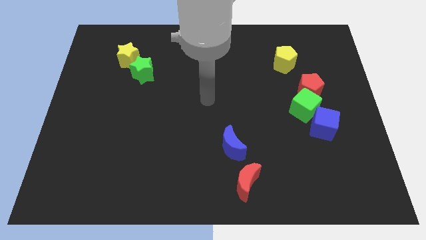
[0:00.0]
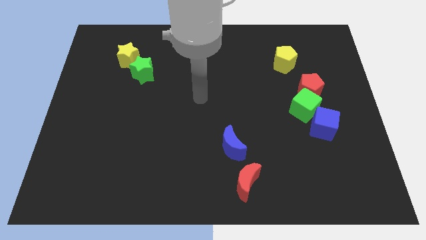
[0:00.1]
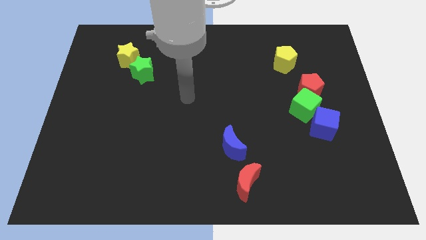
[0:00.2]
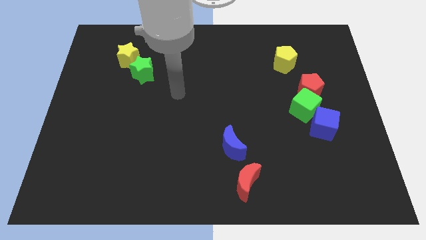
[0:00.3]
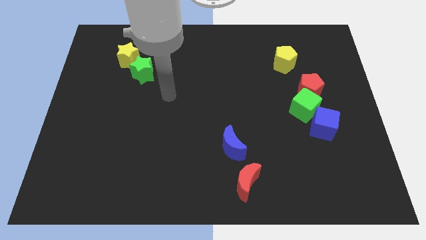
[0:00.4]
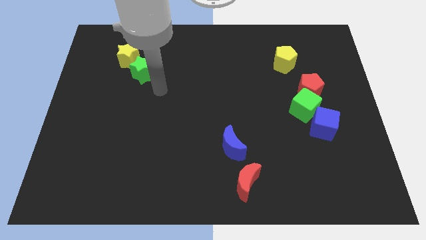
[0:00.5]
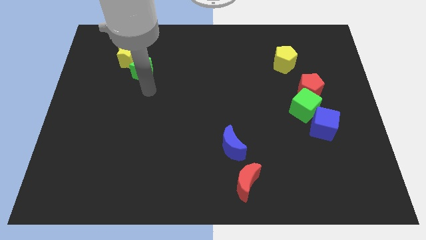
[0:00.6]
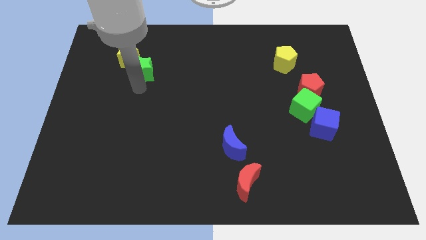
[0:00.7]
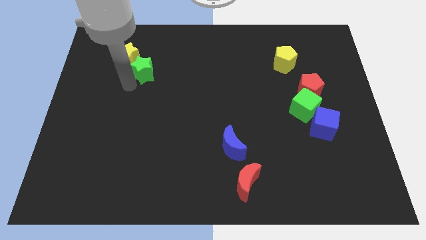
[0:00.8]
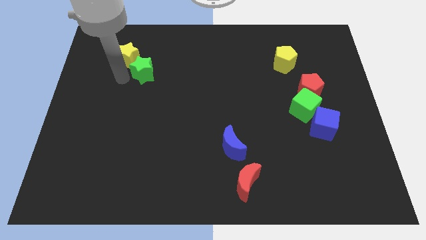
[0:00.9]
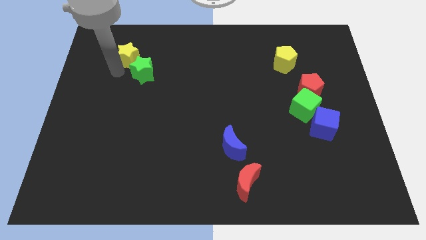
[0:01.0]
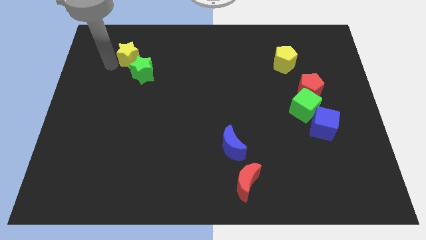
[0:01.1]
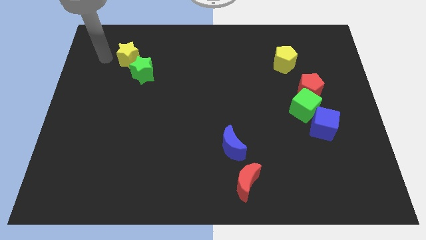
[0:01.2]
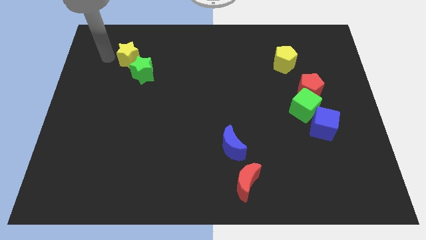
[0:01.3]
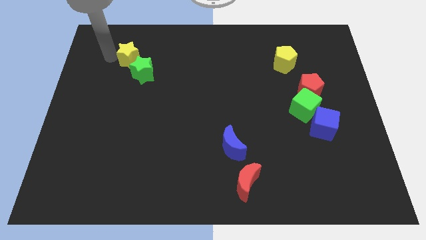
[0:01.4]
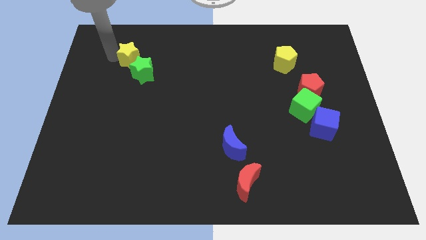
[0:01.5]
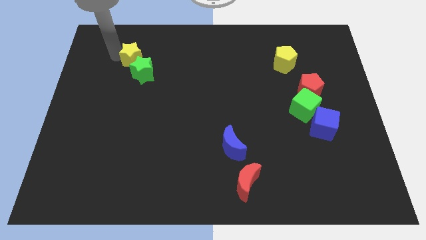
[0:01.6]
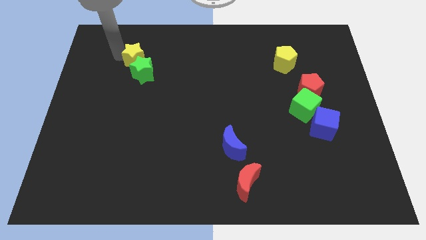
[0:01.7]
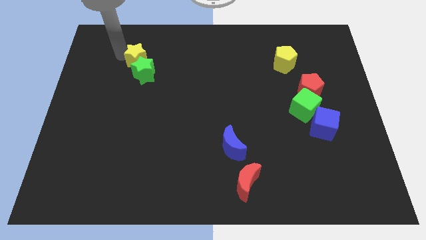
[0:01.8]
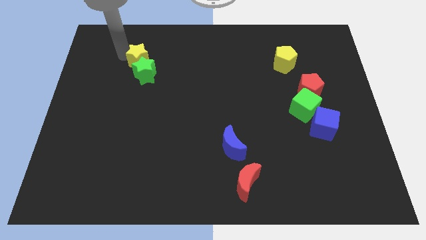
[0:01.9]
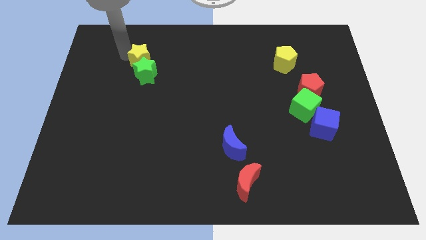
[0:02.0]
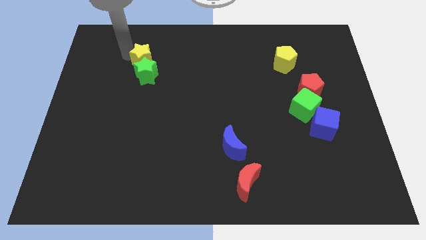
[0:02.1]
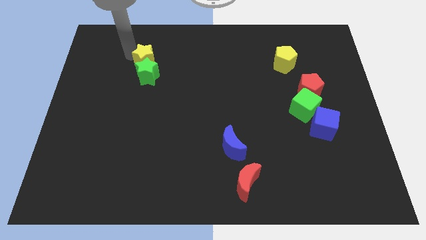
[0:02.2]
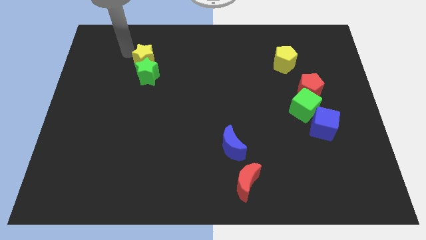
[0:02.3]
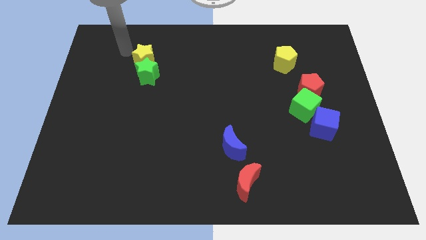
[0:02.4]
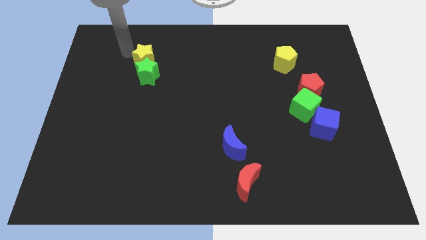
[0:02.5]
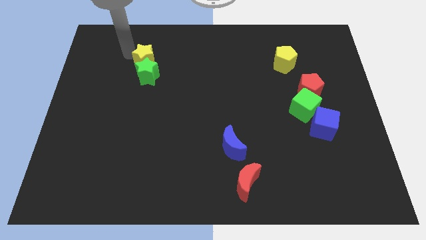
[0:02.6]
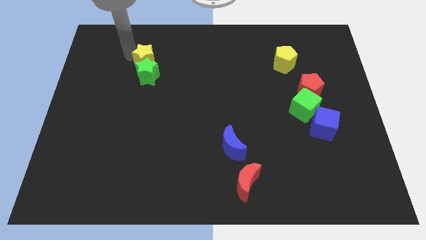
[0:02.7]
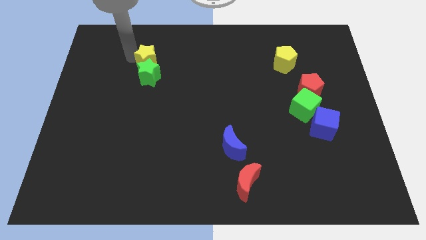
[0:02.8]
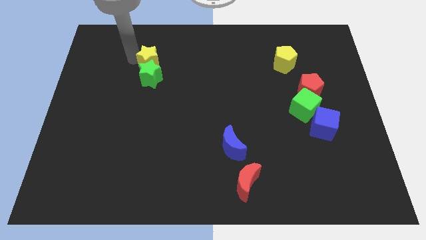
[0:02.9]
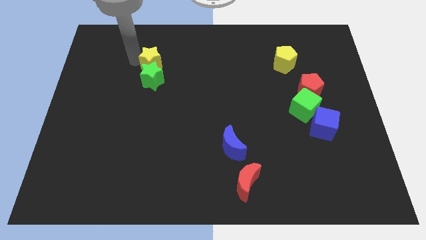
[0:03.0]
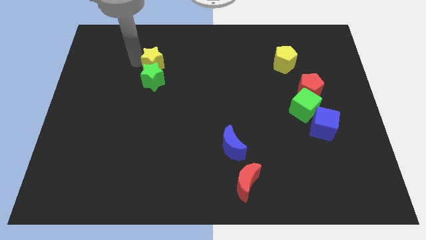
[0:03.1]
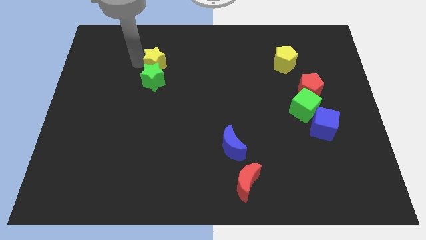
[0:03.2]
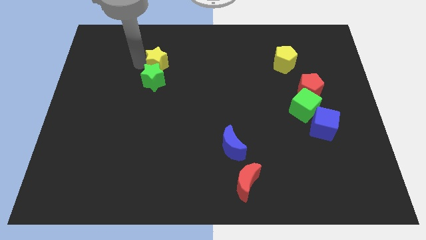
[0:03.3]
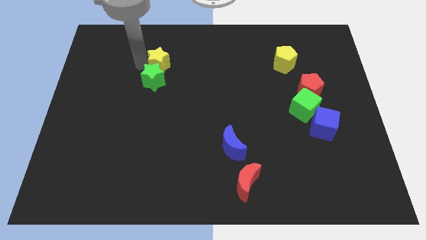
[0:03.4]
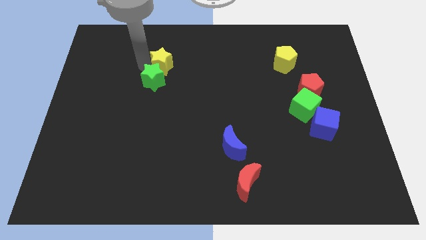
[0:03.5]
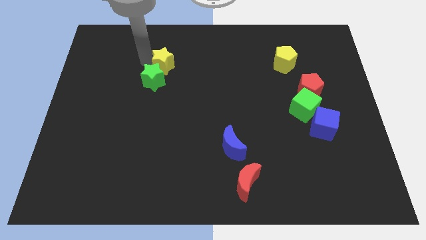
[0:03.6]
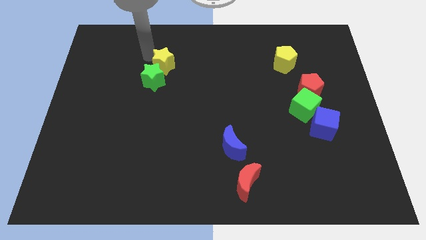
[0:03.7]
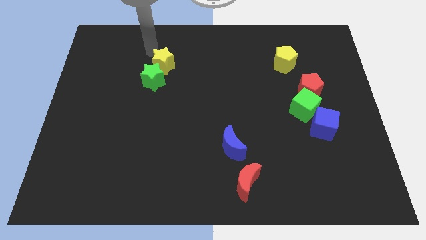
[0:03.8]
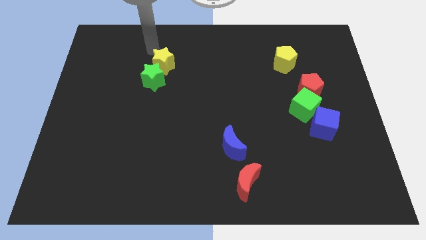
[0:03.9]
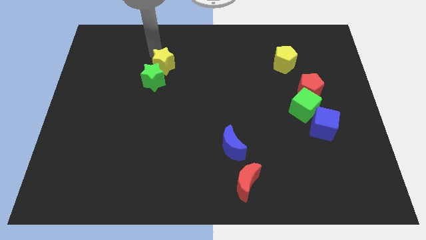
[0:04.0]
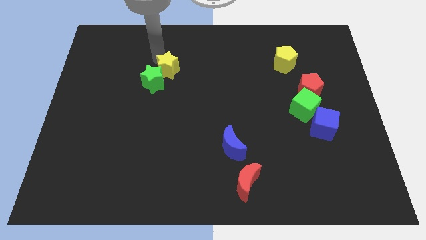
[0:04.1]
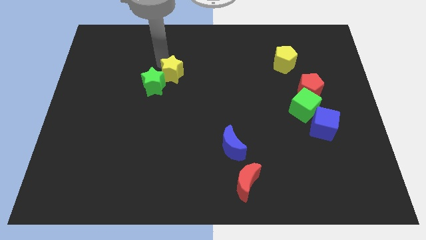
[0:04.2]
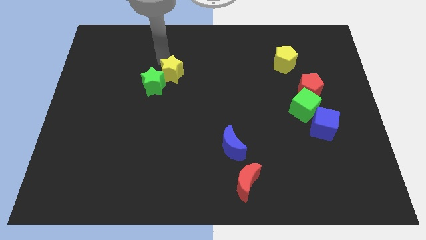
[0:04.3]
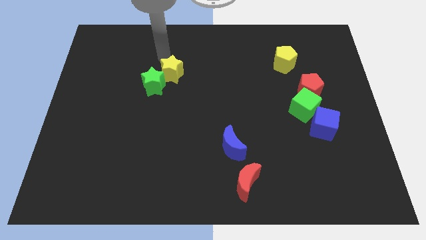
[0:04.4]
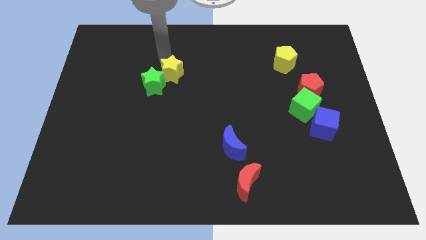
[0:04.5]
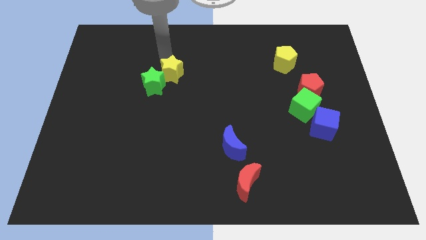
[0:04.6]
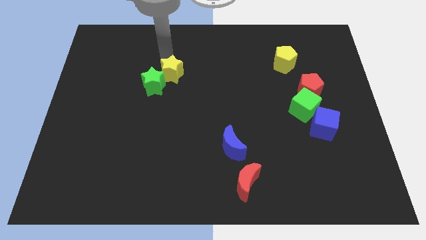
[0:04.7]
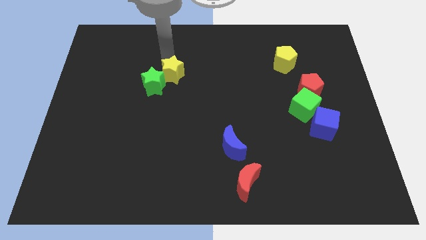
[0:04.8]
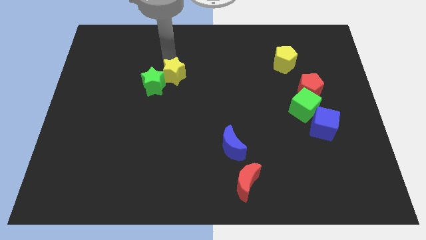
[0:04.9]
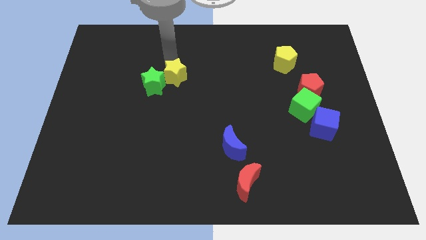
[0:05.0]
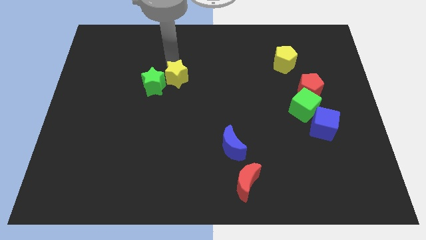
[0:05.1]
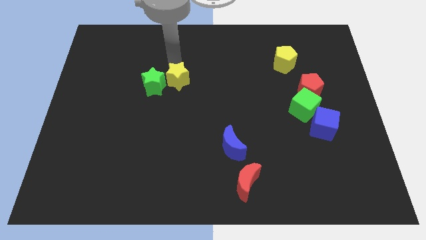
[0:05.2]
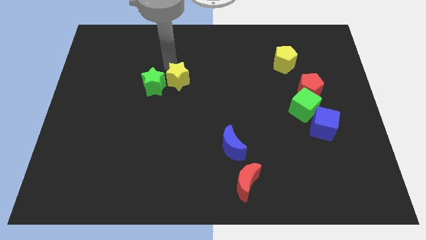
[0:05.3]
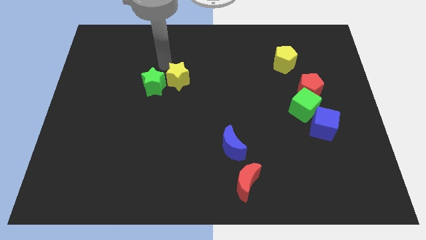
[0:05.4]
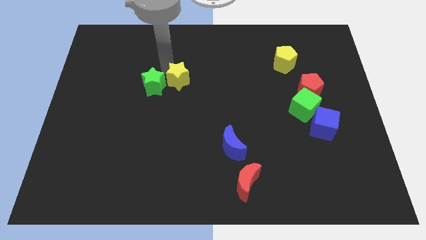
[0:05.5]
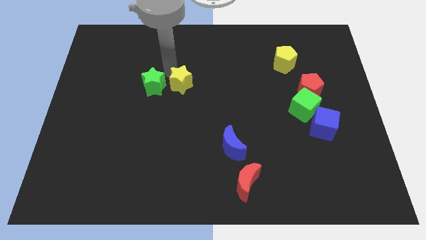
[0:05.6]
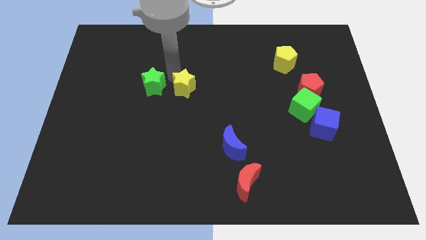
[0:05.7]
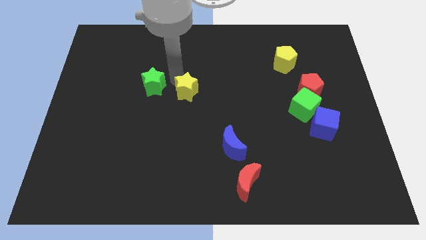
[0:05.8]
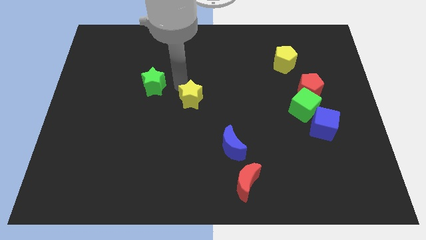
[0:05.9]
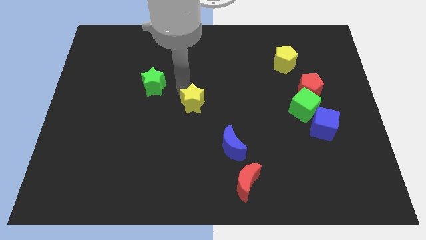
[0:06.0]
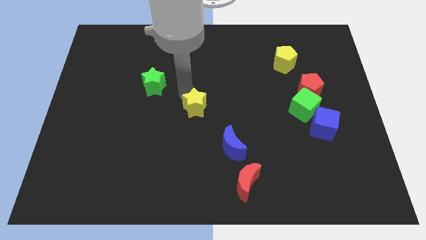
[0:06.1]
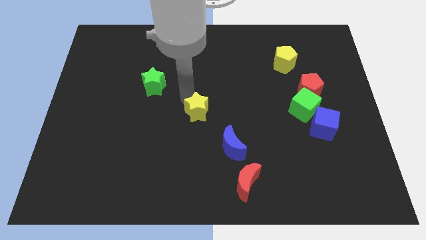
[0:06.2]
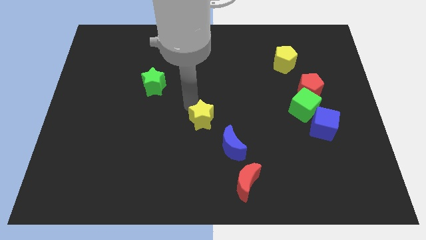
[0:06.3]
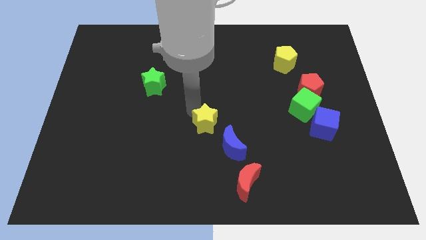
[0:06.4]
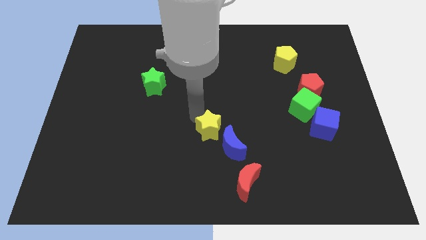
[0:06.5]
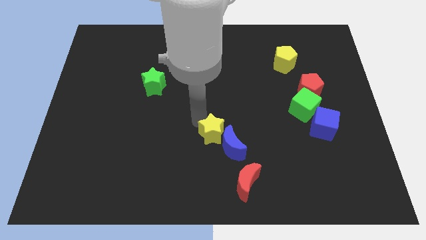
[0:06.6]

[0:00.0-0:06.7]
slide the yellow star close to the blue moon

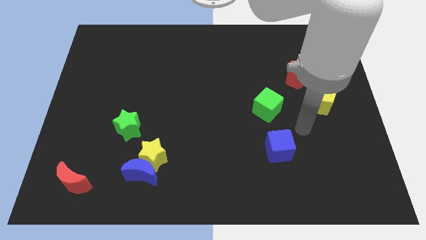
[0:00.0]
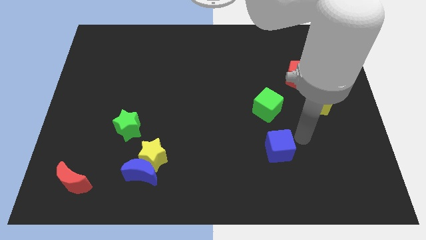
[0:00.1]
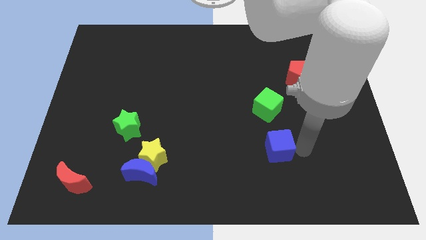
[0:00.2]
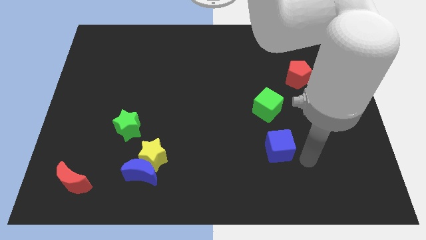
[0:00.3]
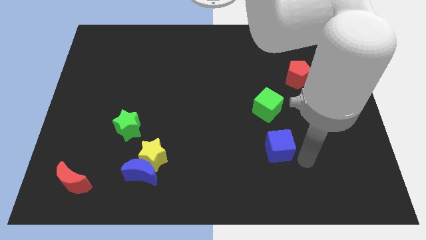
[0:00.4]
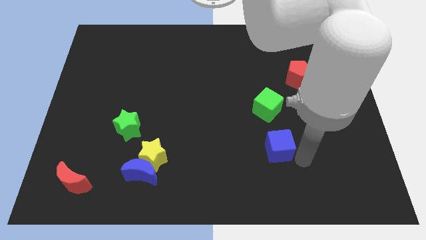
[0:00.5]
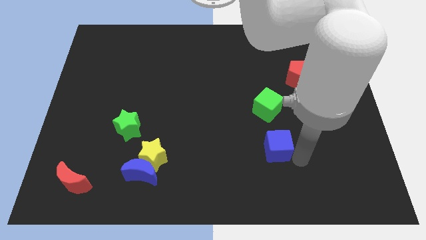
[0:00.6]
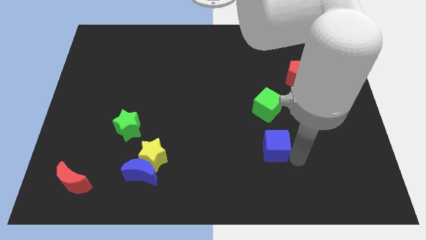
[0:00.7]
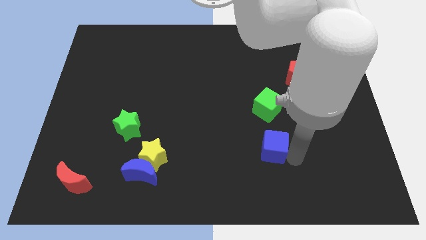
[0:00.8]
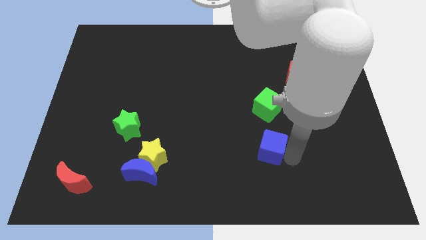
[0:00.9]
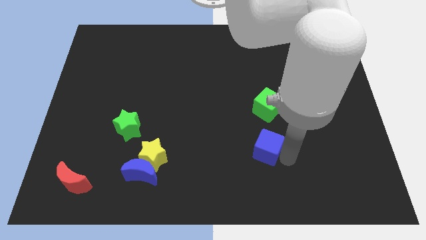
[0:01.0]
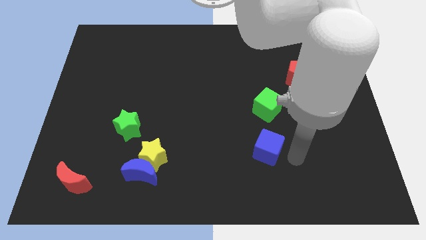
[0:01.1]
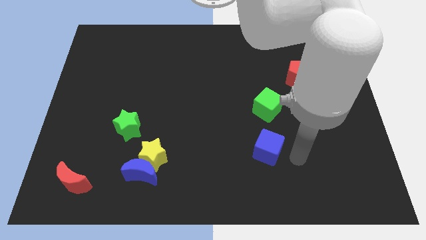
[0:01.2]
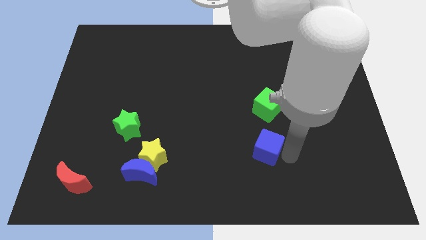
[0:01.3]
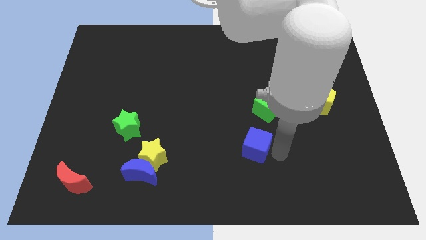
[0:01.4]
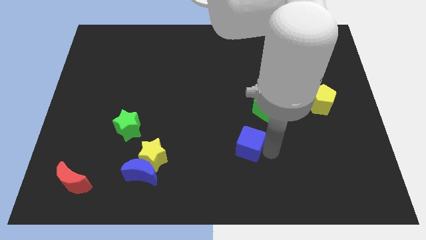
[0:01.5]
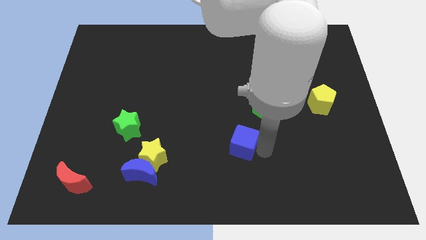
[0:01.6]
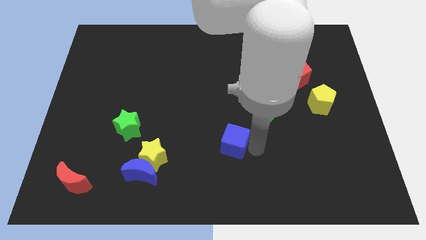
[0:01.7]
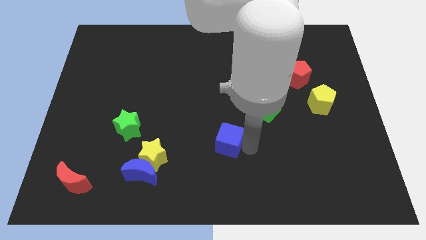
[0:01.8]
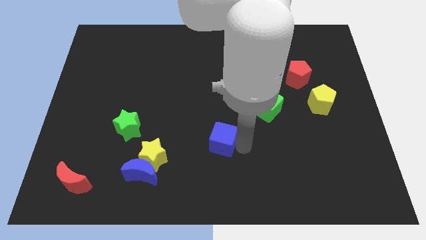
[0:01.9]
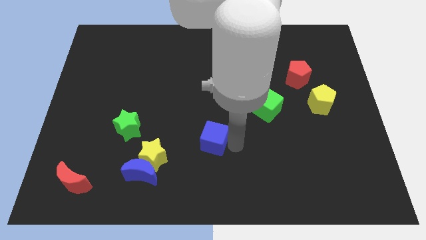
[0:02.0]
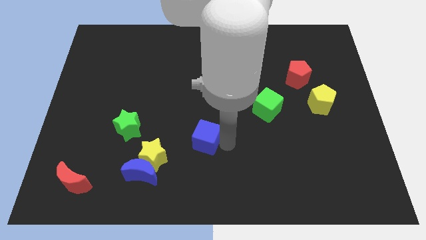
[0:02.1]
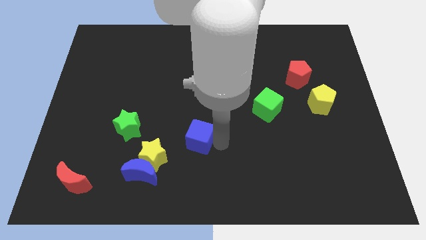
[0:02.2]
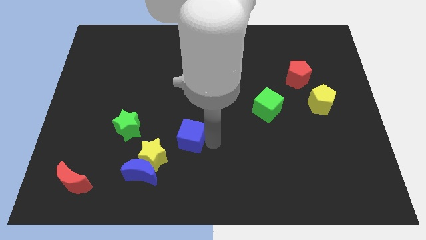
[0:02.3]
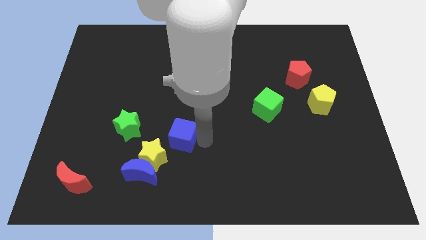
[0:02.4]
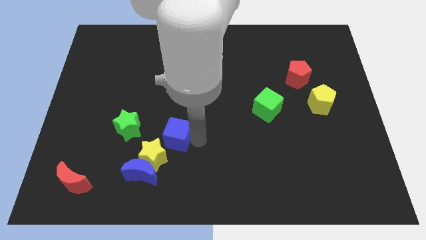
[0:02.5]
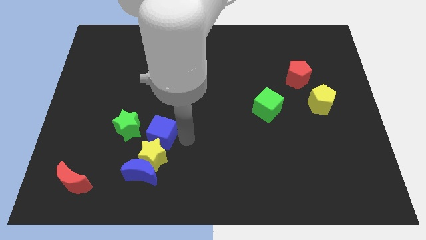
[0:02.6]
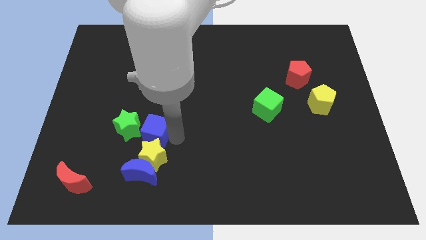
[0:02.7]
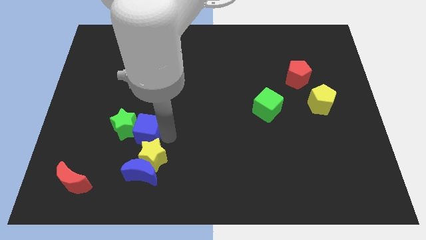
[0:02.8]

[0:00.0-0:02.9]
push the blue cube next to the green star
